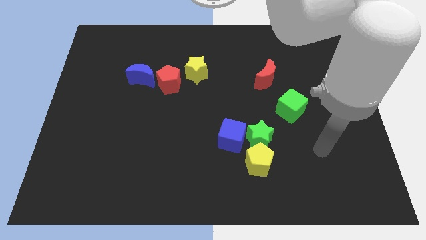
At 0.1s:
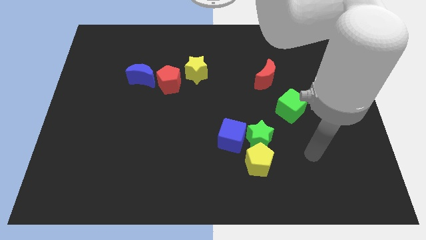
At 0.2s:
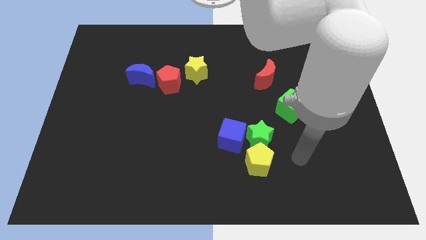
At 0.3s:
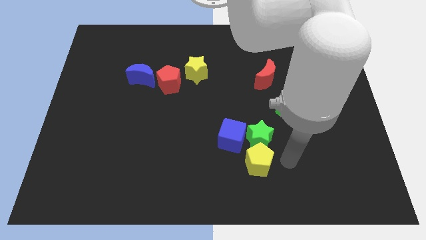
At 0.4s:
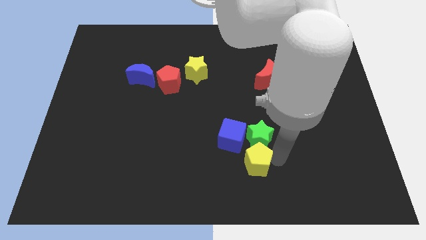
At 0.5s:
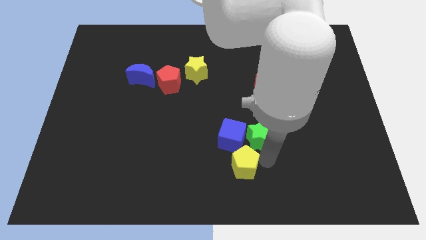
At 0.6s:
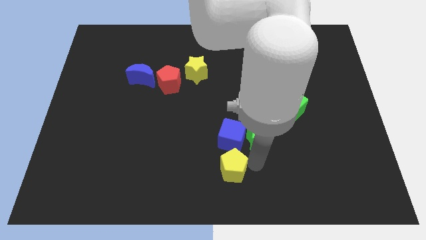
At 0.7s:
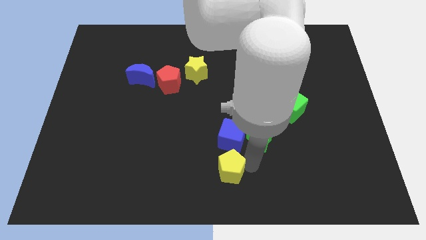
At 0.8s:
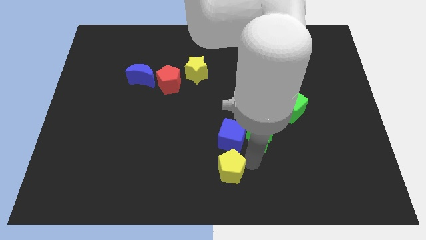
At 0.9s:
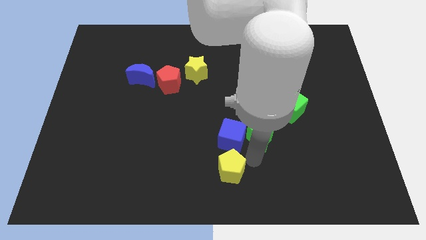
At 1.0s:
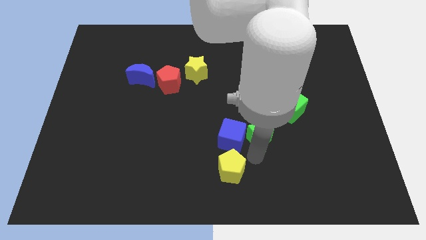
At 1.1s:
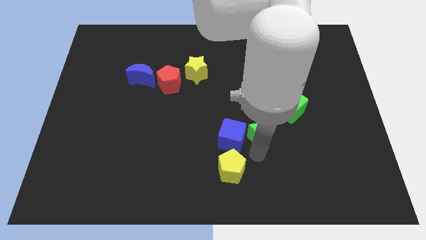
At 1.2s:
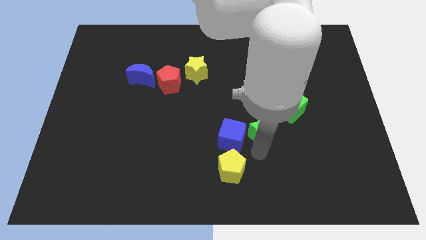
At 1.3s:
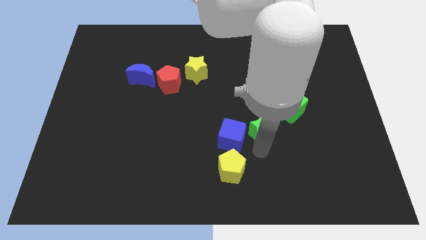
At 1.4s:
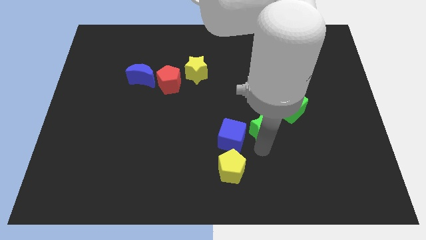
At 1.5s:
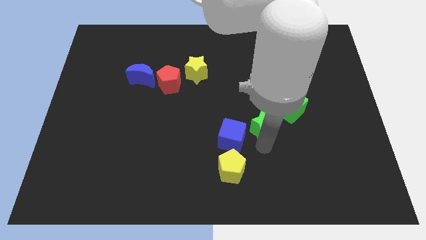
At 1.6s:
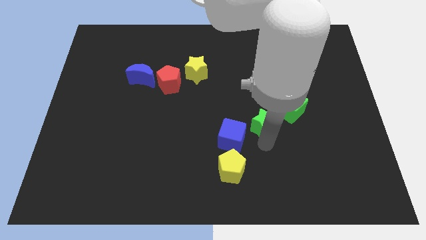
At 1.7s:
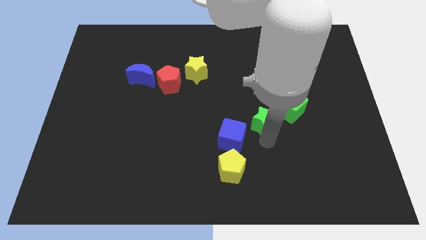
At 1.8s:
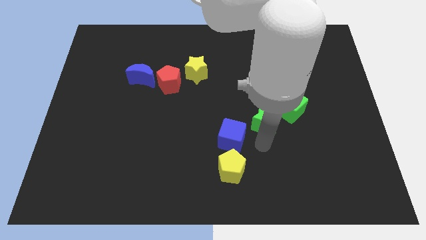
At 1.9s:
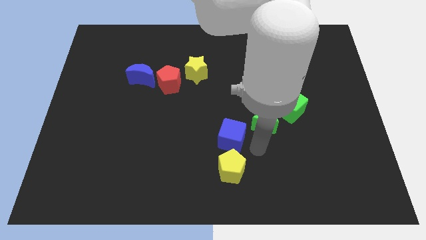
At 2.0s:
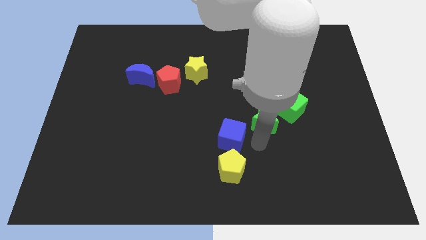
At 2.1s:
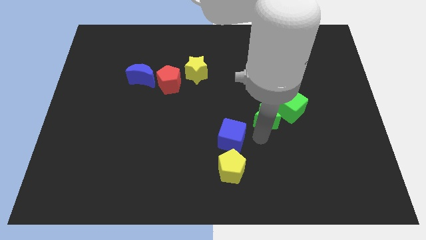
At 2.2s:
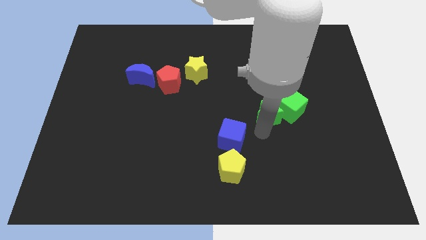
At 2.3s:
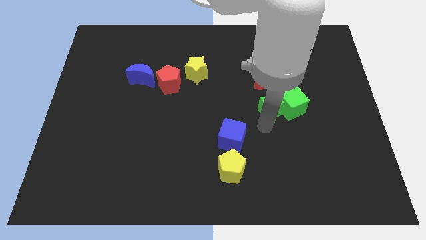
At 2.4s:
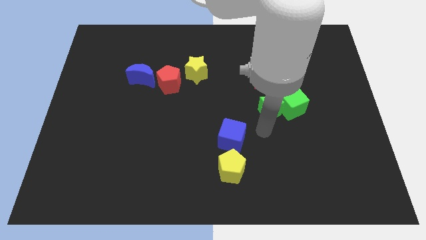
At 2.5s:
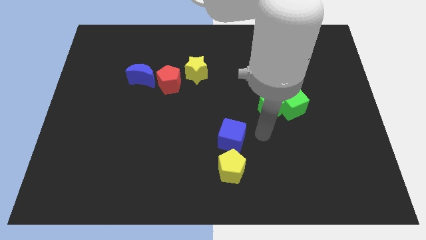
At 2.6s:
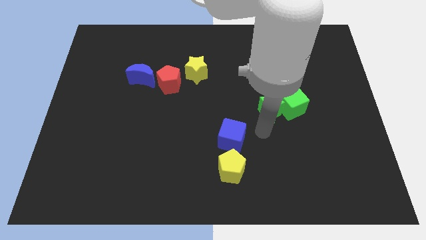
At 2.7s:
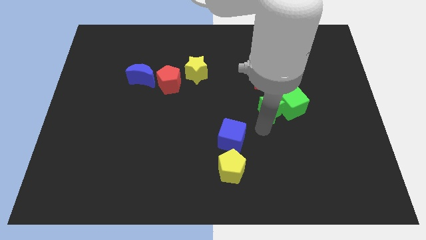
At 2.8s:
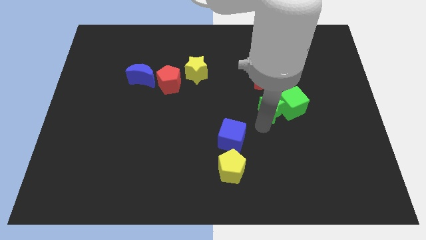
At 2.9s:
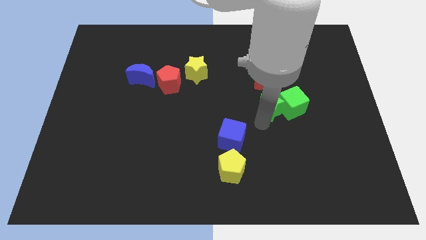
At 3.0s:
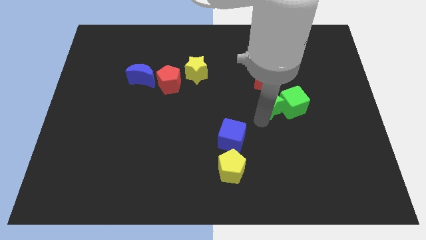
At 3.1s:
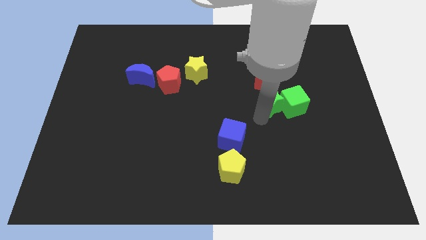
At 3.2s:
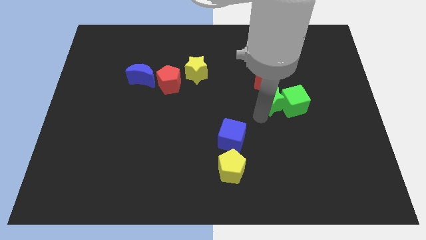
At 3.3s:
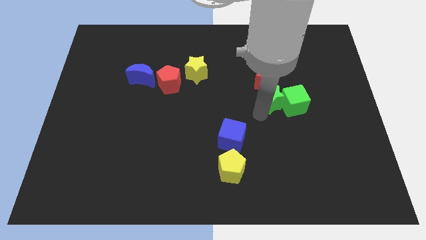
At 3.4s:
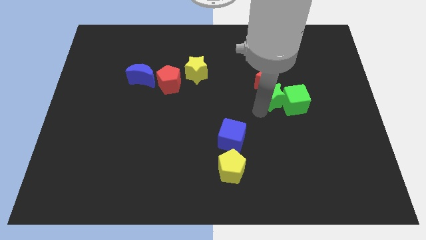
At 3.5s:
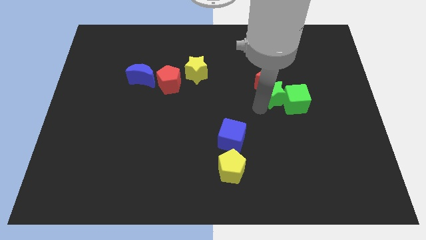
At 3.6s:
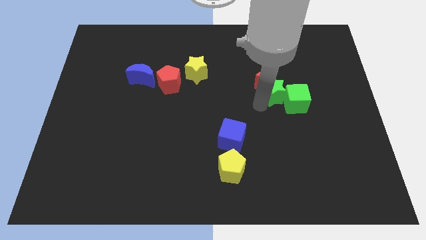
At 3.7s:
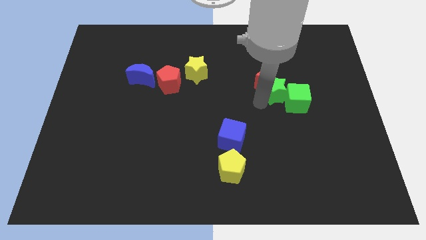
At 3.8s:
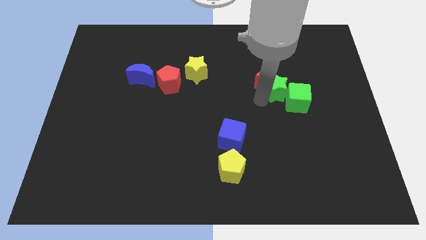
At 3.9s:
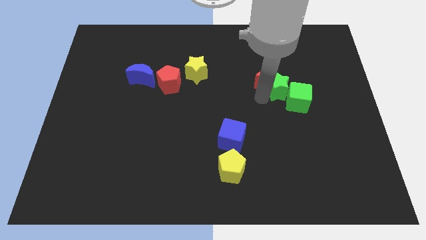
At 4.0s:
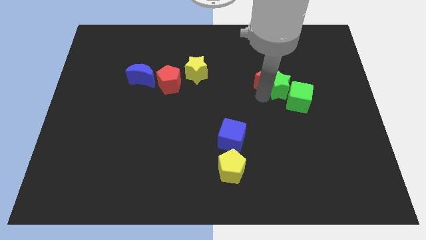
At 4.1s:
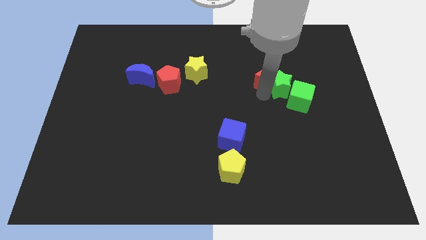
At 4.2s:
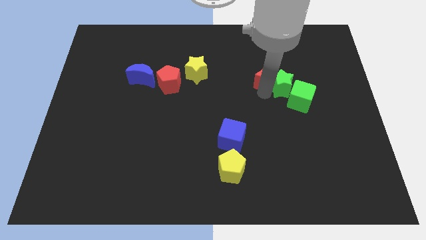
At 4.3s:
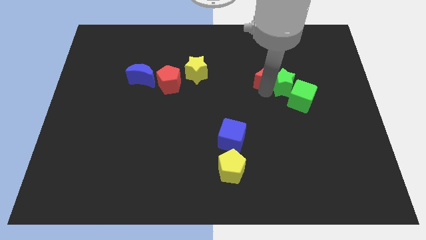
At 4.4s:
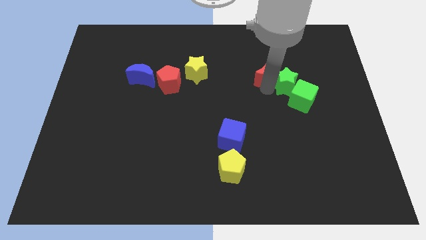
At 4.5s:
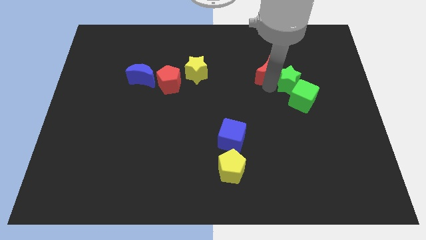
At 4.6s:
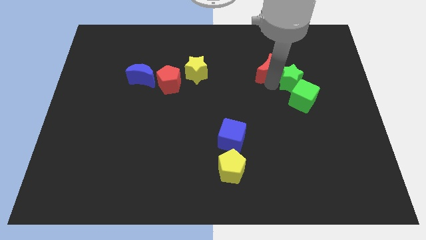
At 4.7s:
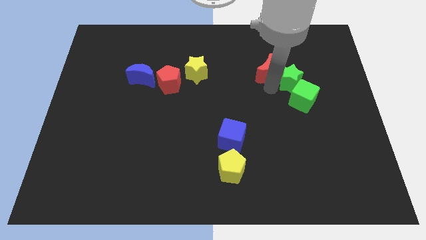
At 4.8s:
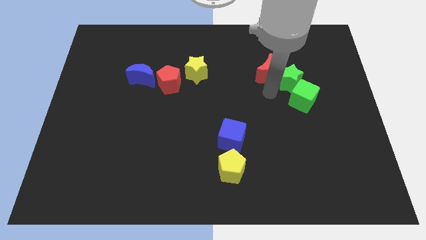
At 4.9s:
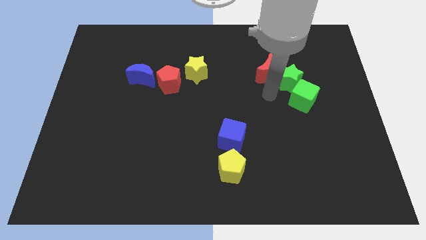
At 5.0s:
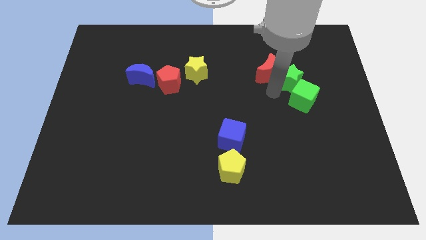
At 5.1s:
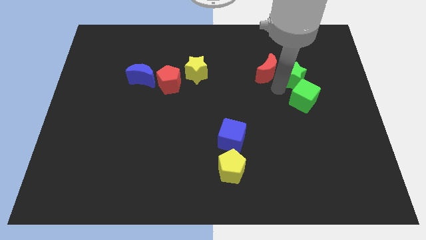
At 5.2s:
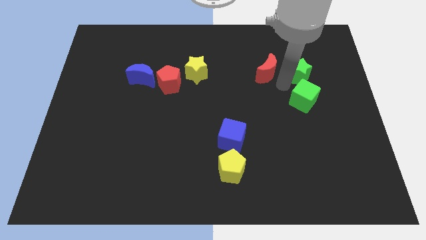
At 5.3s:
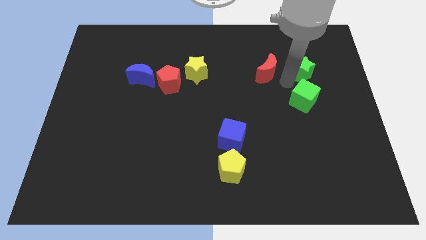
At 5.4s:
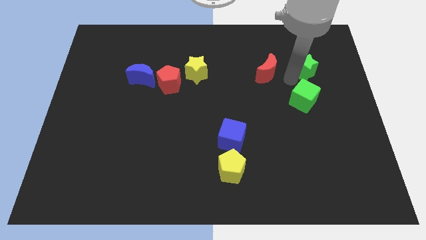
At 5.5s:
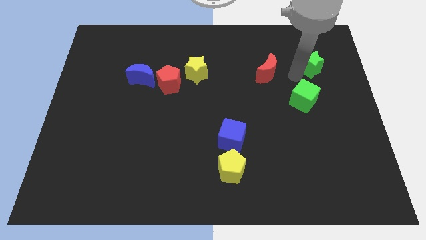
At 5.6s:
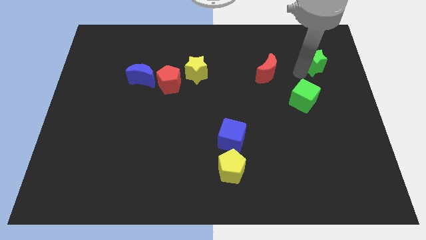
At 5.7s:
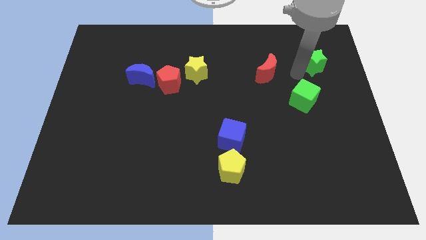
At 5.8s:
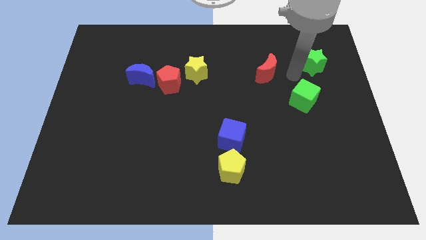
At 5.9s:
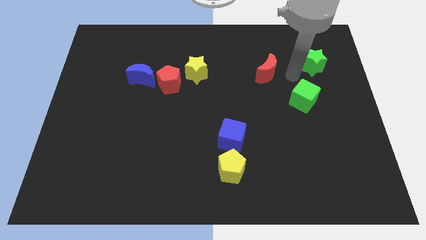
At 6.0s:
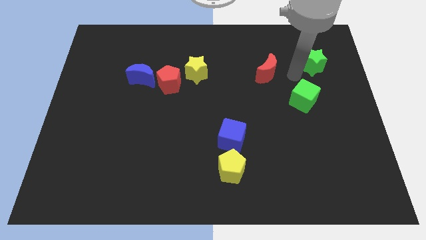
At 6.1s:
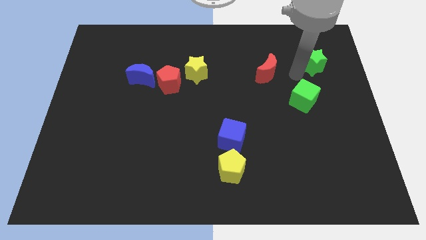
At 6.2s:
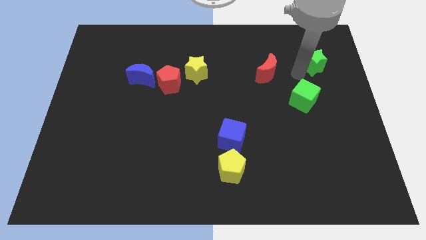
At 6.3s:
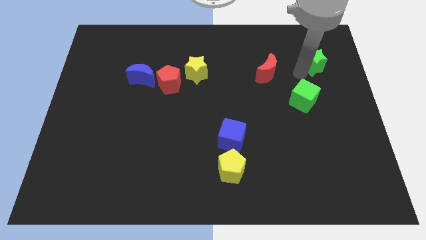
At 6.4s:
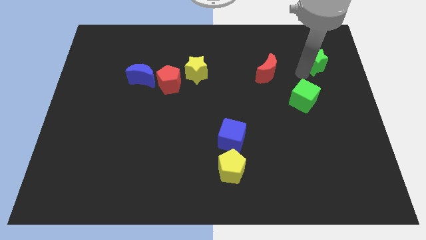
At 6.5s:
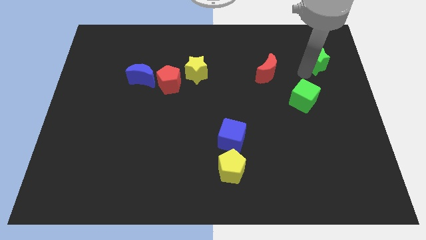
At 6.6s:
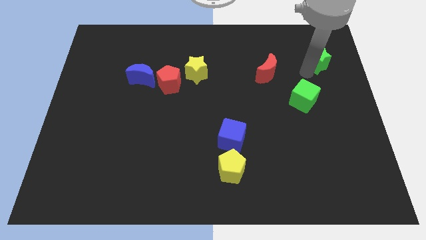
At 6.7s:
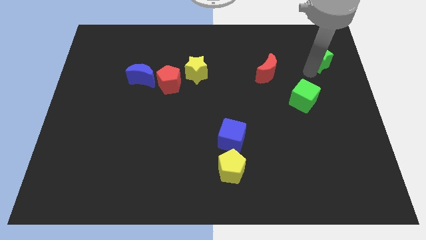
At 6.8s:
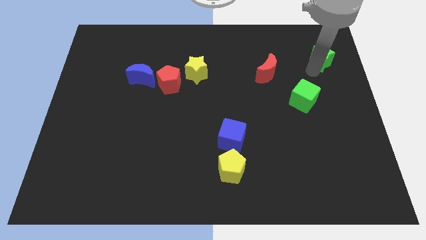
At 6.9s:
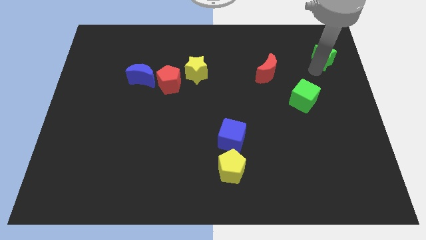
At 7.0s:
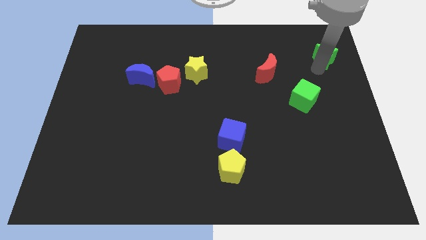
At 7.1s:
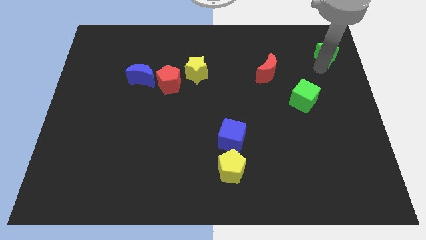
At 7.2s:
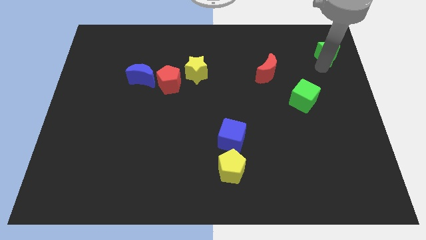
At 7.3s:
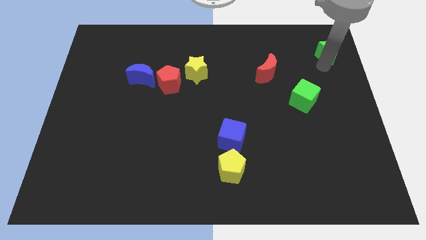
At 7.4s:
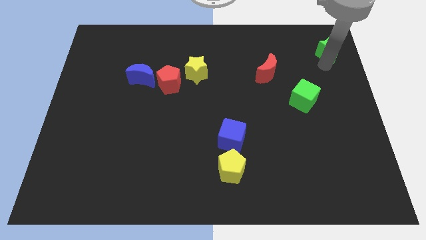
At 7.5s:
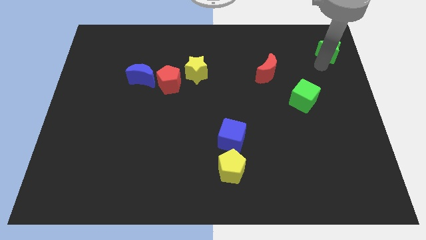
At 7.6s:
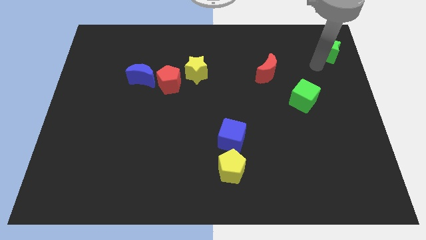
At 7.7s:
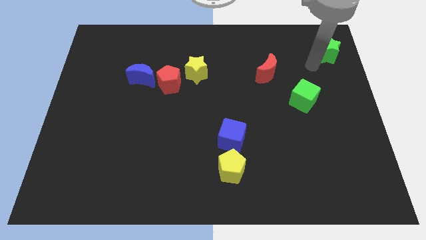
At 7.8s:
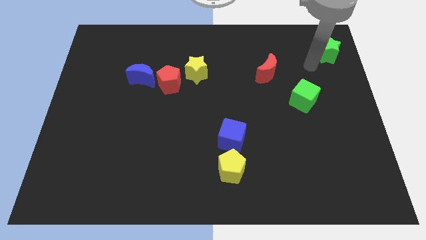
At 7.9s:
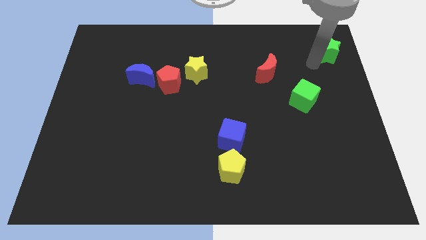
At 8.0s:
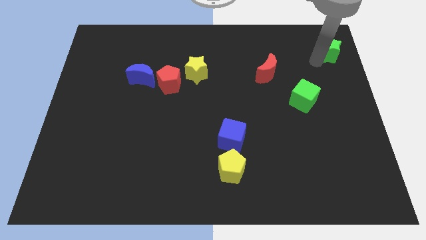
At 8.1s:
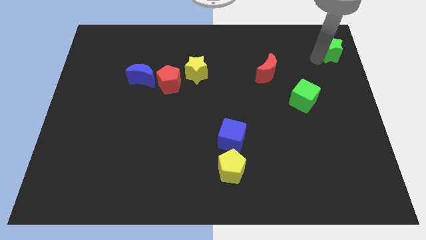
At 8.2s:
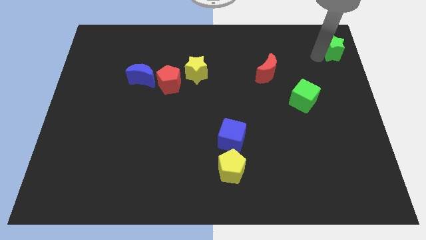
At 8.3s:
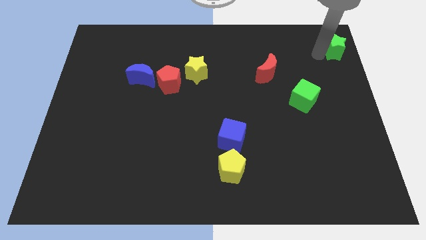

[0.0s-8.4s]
push the green star to the top right corner
